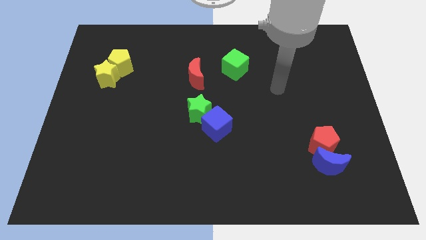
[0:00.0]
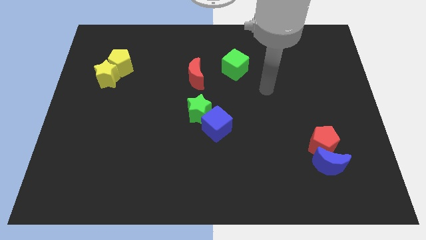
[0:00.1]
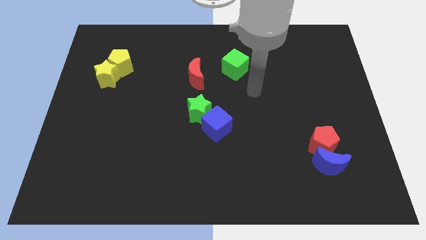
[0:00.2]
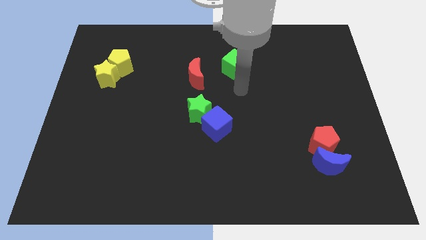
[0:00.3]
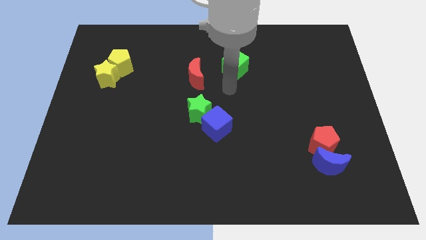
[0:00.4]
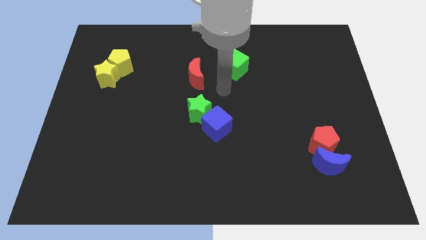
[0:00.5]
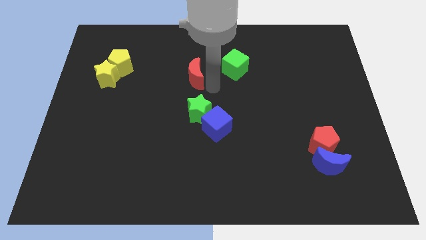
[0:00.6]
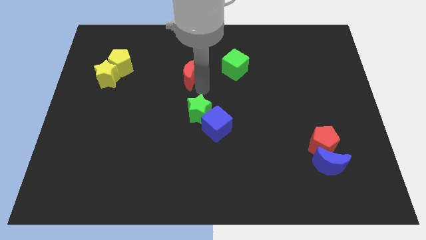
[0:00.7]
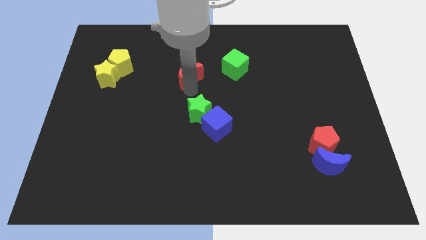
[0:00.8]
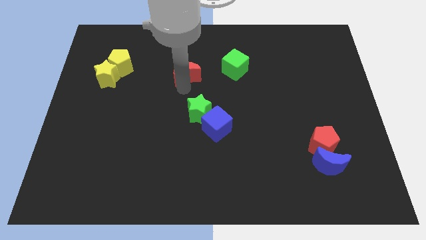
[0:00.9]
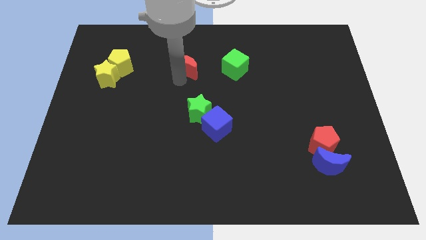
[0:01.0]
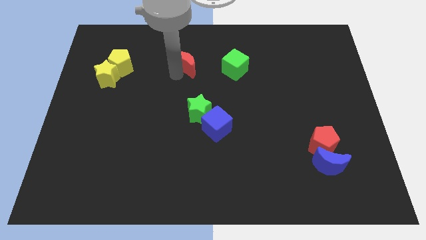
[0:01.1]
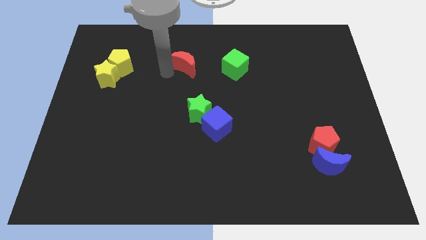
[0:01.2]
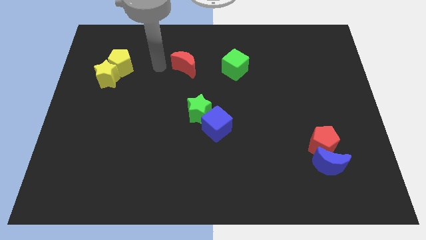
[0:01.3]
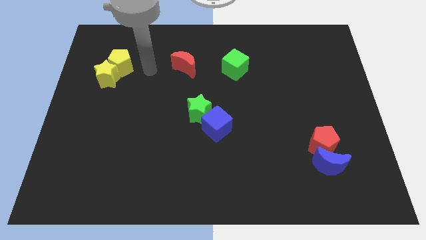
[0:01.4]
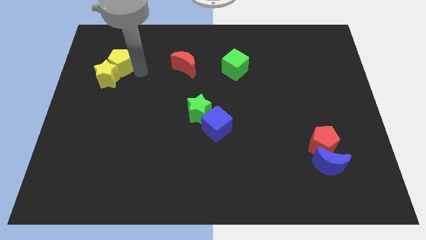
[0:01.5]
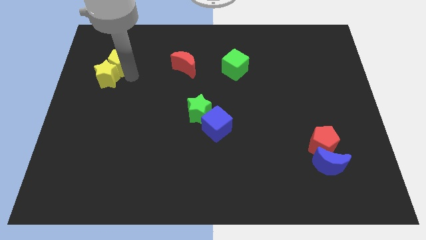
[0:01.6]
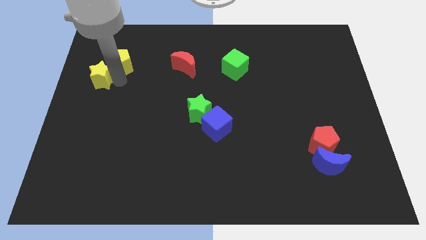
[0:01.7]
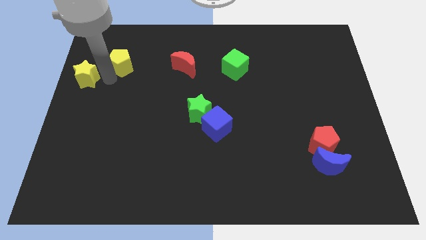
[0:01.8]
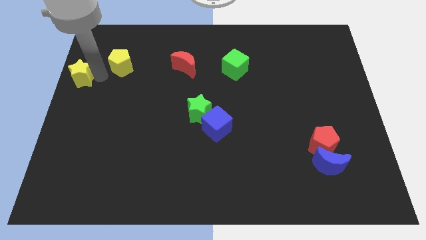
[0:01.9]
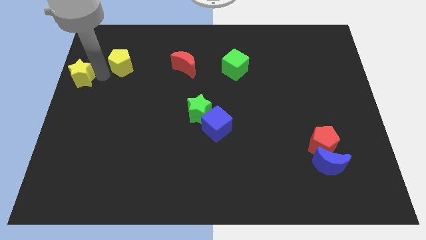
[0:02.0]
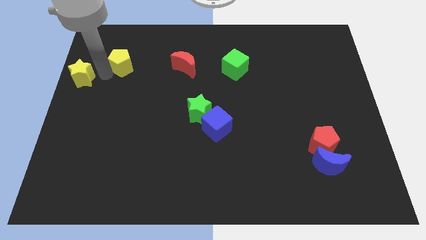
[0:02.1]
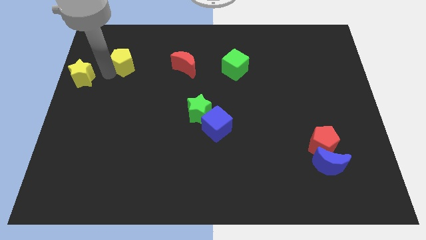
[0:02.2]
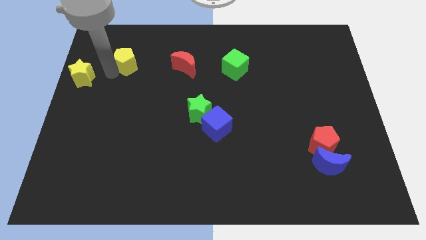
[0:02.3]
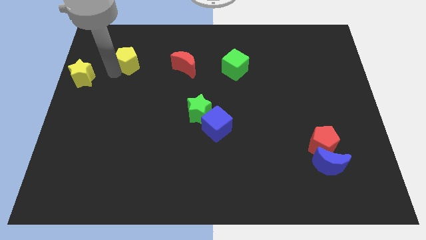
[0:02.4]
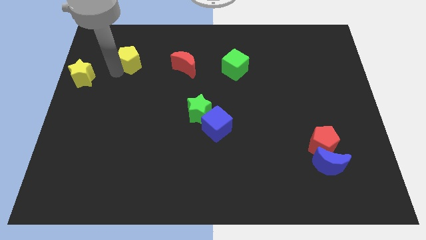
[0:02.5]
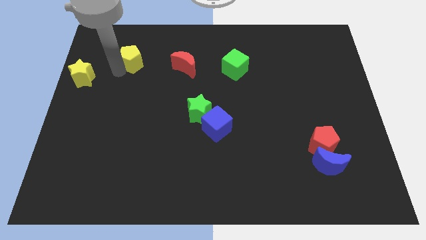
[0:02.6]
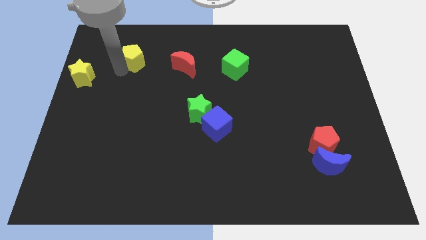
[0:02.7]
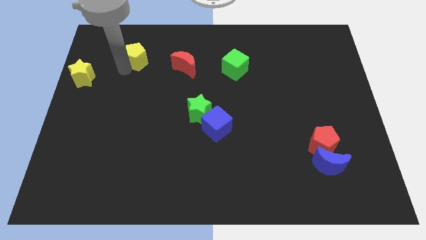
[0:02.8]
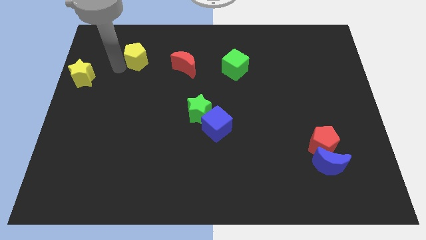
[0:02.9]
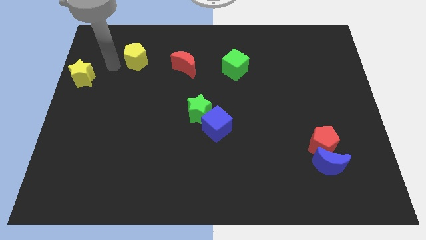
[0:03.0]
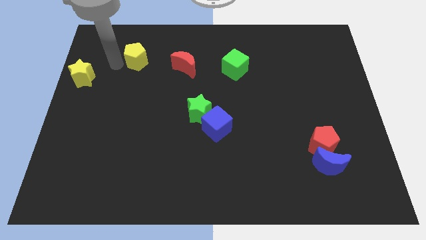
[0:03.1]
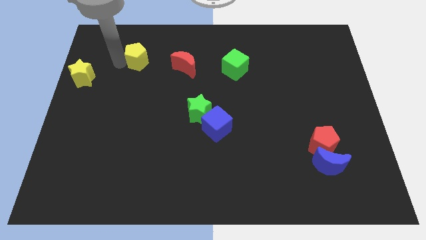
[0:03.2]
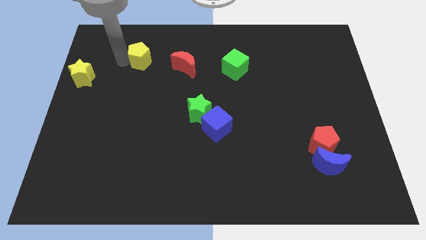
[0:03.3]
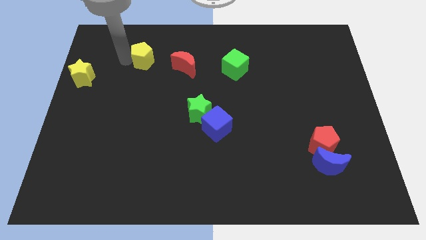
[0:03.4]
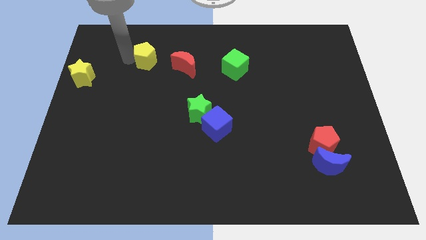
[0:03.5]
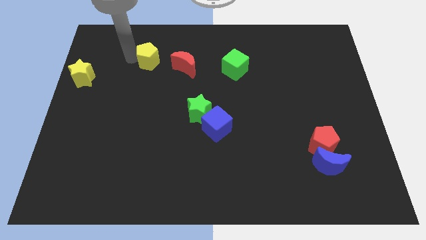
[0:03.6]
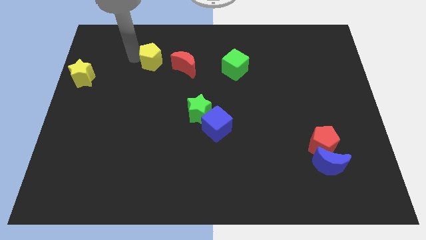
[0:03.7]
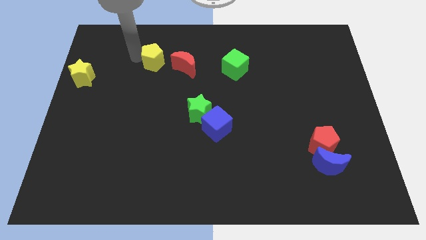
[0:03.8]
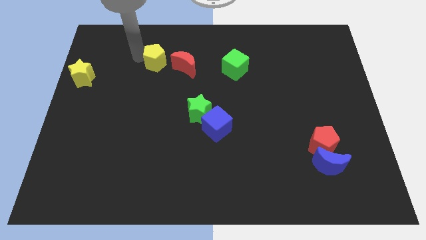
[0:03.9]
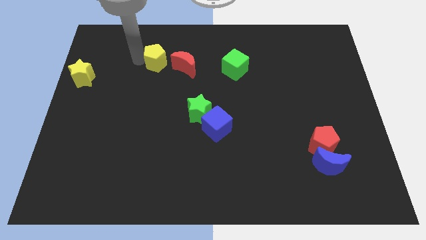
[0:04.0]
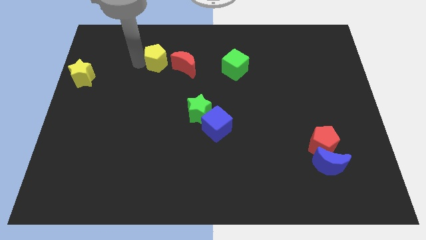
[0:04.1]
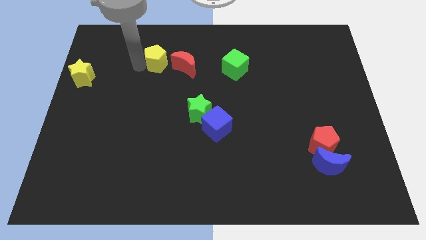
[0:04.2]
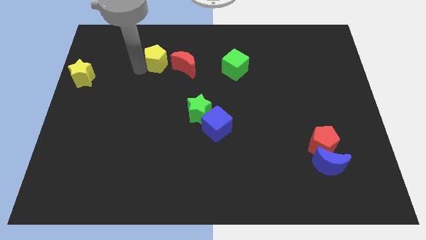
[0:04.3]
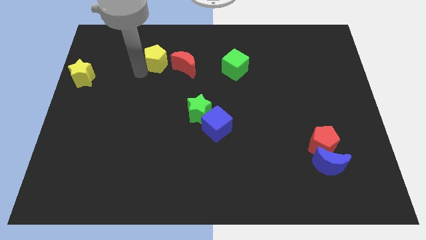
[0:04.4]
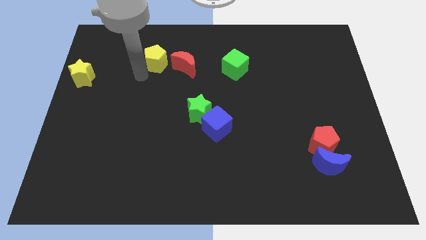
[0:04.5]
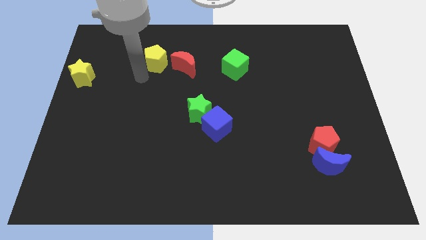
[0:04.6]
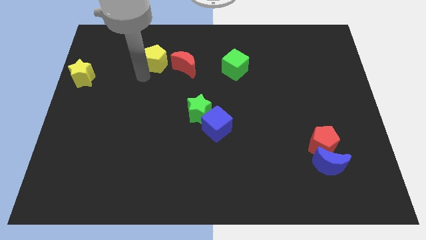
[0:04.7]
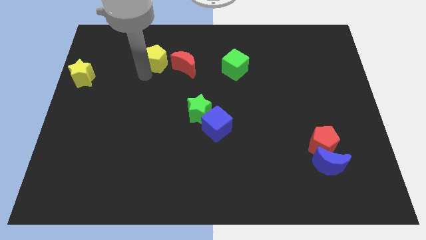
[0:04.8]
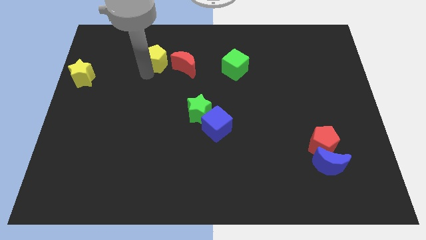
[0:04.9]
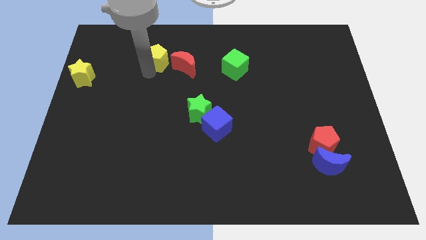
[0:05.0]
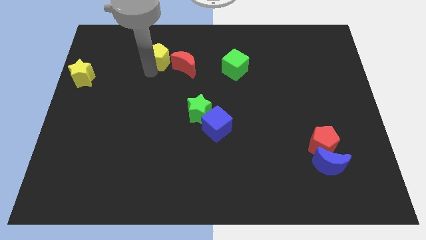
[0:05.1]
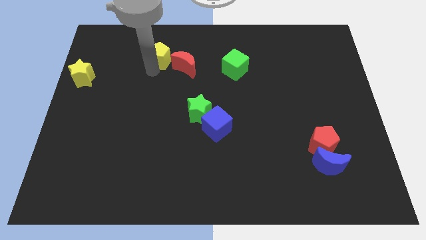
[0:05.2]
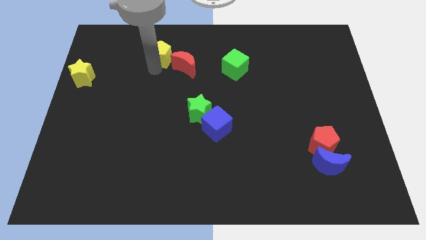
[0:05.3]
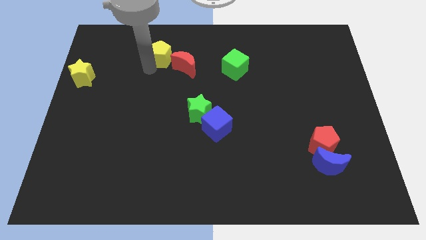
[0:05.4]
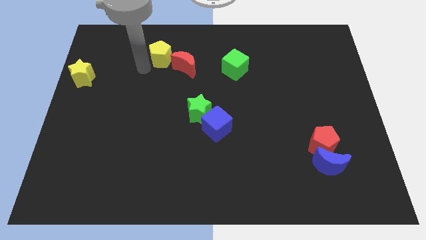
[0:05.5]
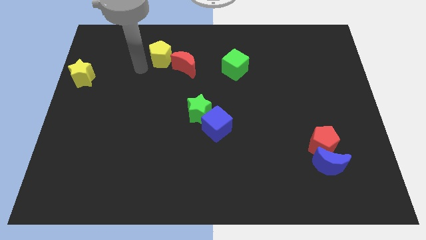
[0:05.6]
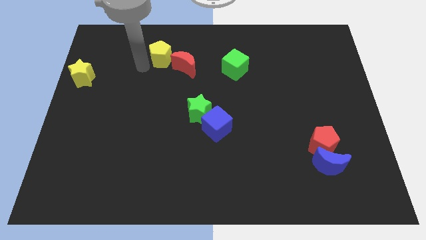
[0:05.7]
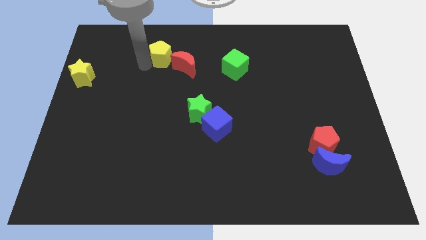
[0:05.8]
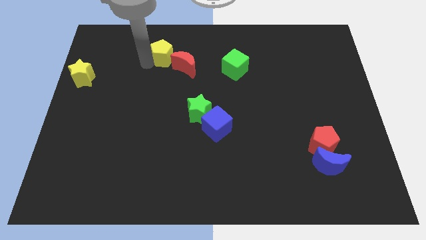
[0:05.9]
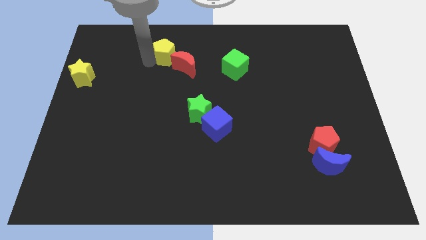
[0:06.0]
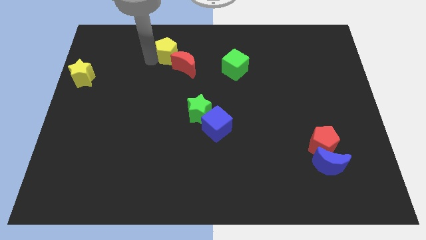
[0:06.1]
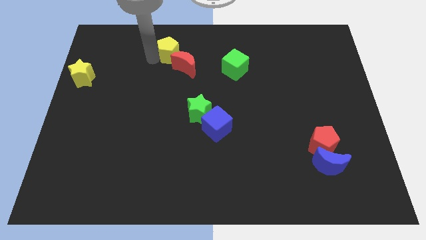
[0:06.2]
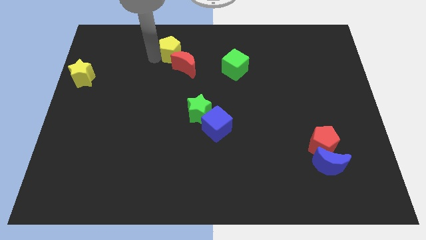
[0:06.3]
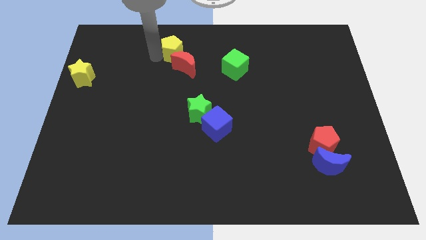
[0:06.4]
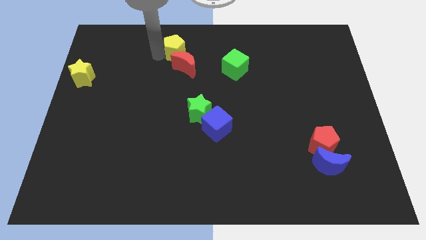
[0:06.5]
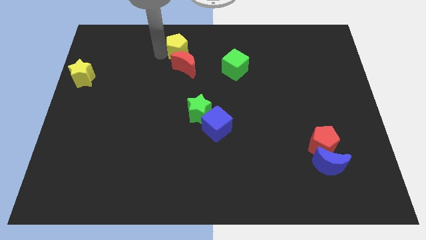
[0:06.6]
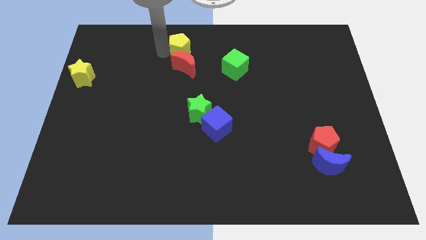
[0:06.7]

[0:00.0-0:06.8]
push the yellow pentagon to the top

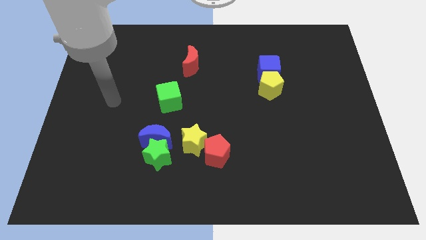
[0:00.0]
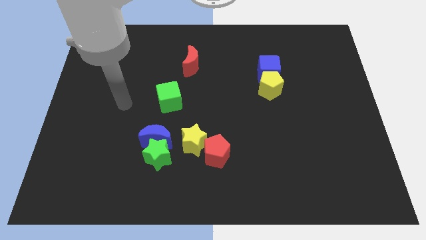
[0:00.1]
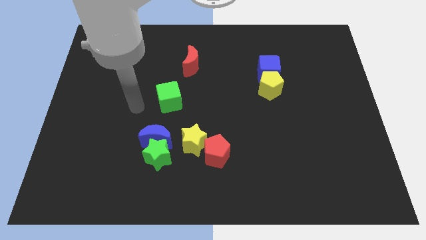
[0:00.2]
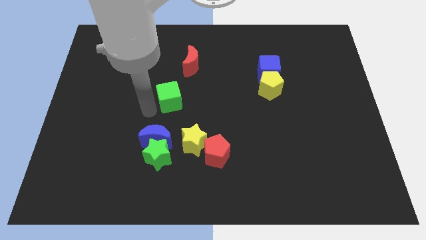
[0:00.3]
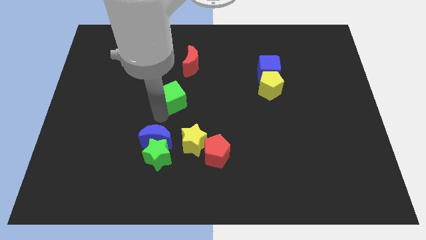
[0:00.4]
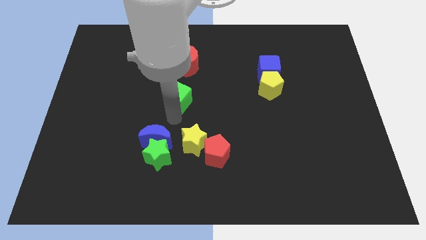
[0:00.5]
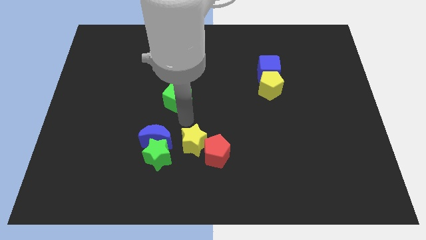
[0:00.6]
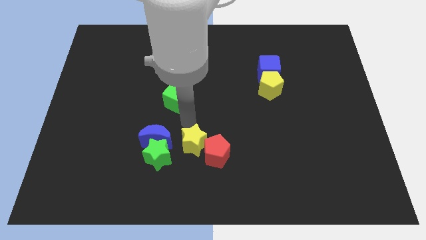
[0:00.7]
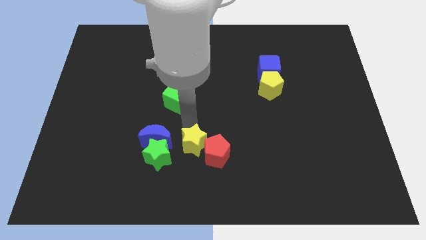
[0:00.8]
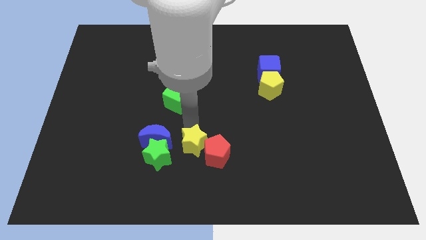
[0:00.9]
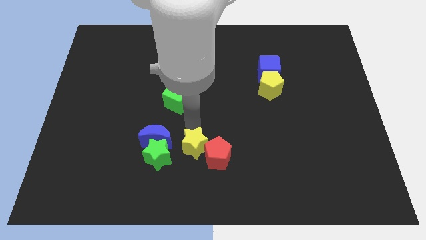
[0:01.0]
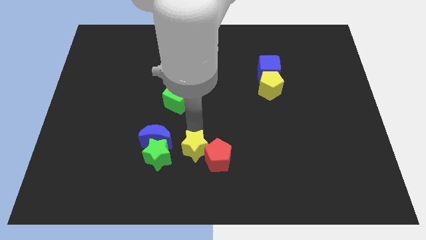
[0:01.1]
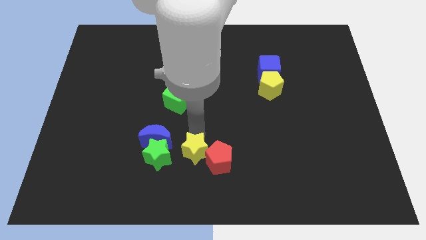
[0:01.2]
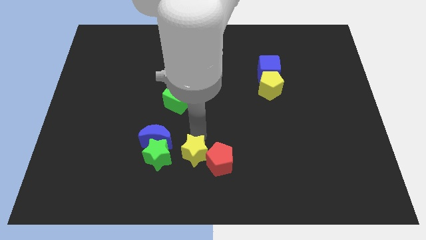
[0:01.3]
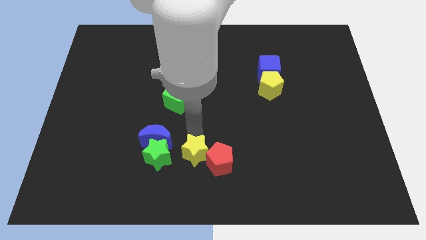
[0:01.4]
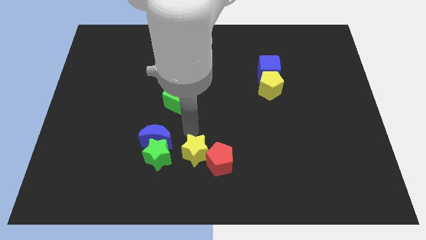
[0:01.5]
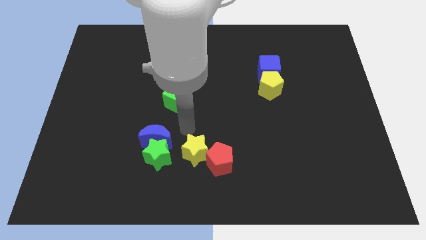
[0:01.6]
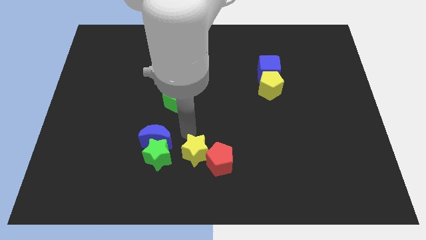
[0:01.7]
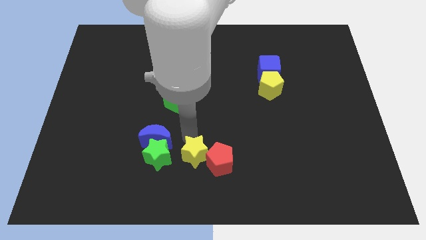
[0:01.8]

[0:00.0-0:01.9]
put the yellow star to the bottom
